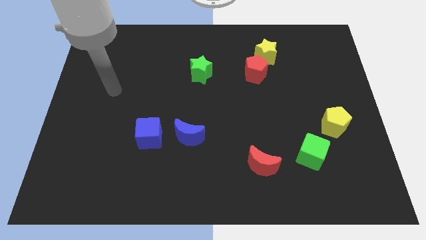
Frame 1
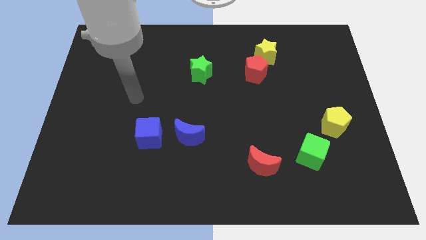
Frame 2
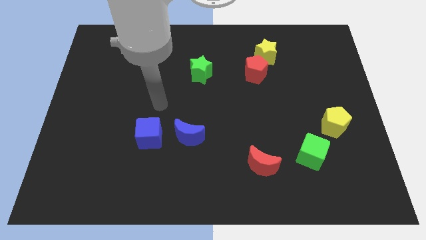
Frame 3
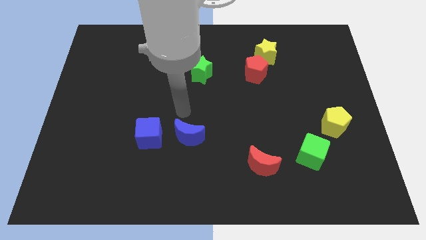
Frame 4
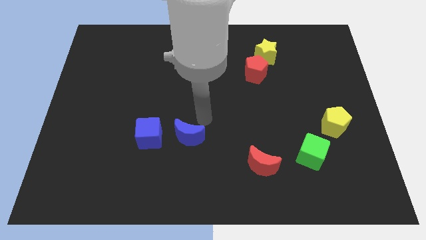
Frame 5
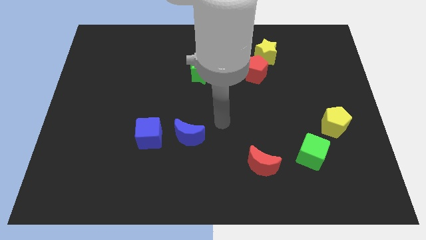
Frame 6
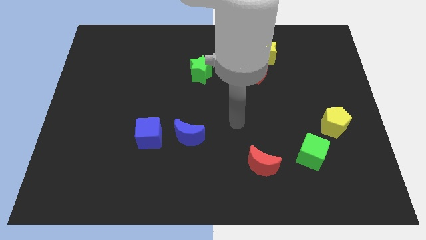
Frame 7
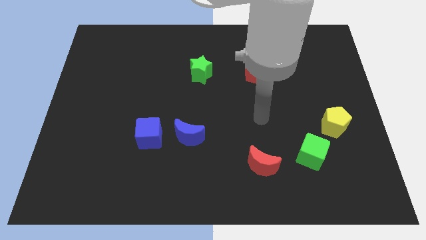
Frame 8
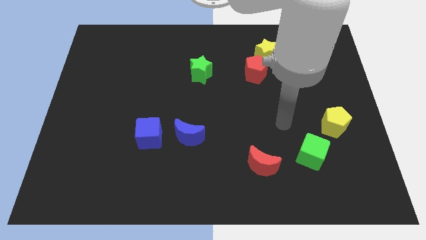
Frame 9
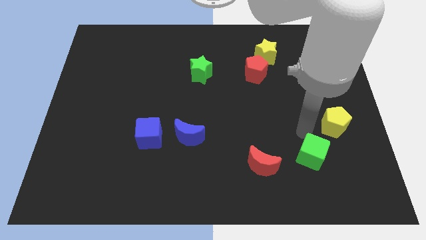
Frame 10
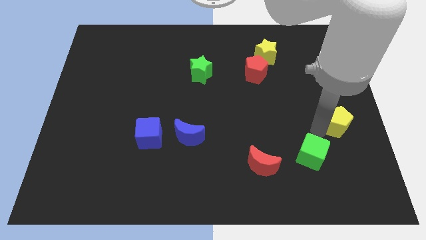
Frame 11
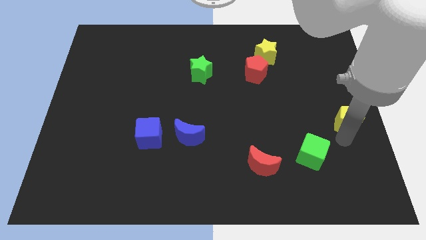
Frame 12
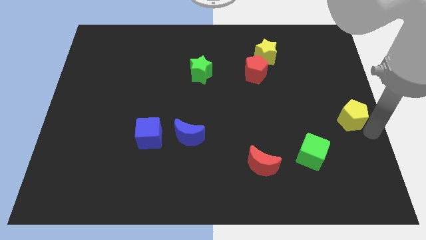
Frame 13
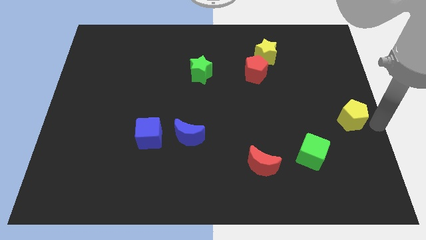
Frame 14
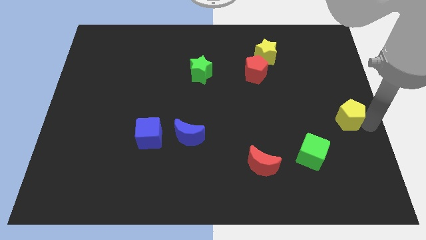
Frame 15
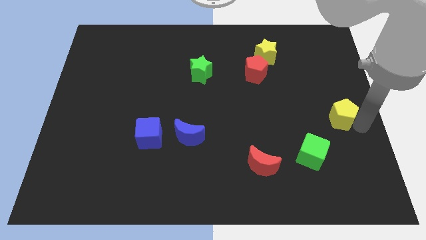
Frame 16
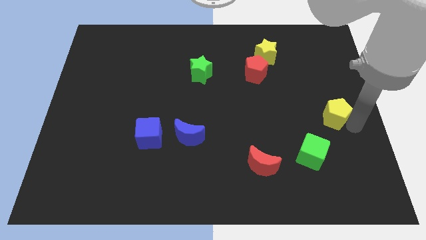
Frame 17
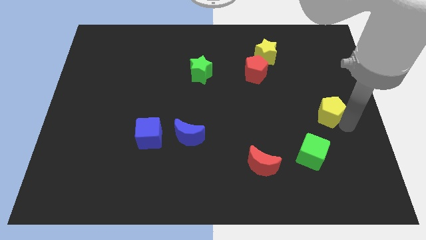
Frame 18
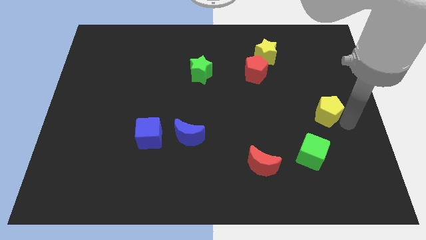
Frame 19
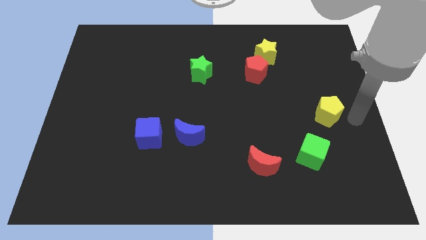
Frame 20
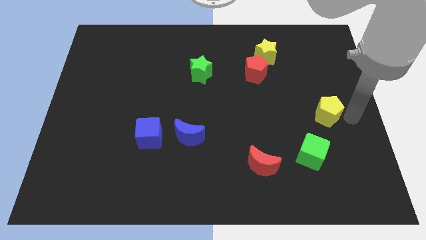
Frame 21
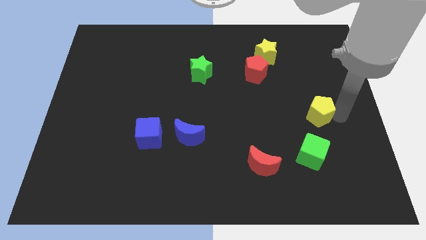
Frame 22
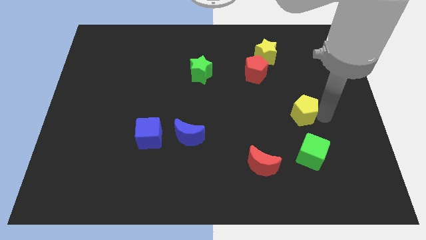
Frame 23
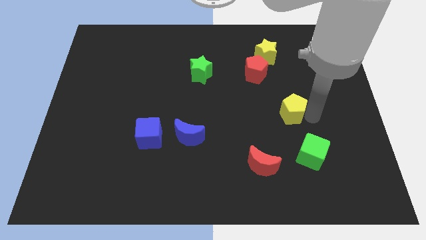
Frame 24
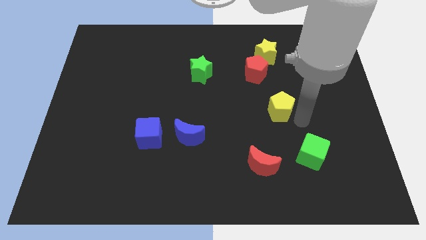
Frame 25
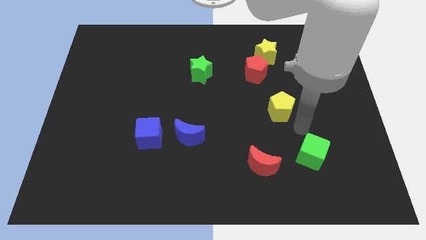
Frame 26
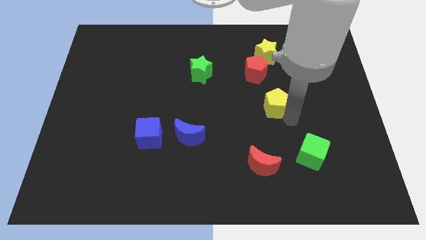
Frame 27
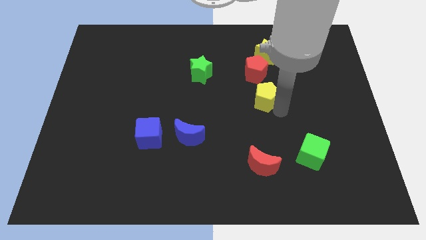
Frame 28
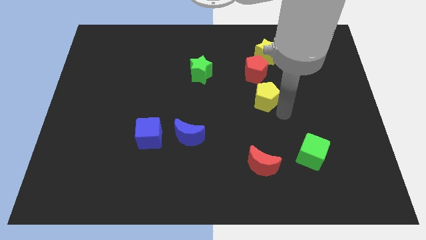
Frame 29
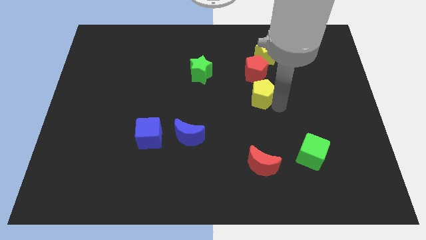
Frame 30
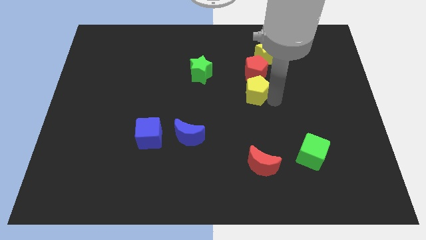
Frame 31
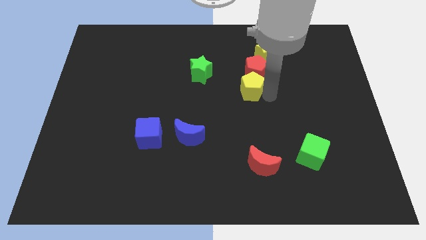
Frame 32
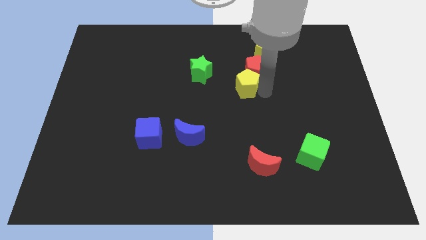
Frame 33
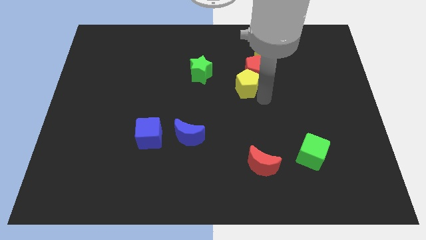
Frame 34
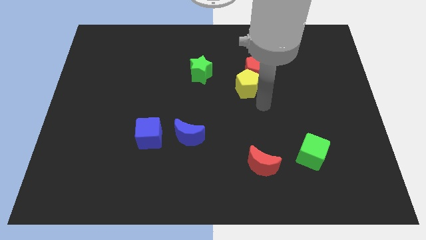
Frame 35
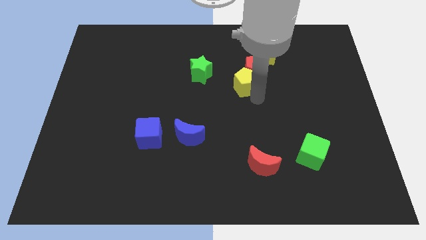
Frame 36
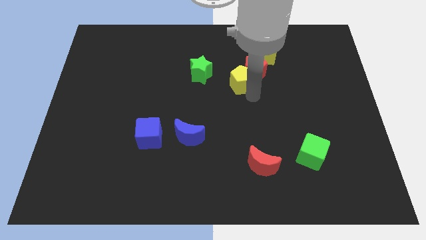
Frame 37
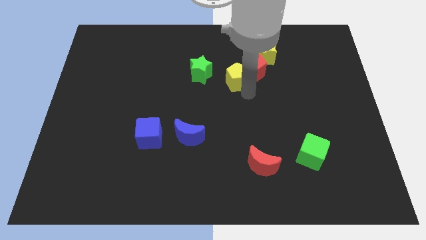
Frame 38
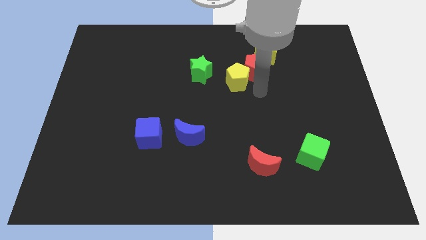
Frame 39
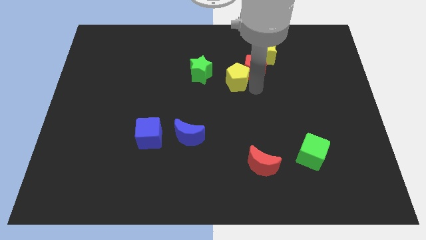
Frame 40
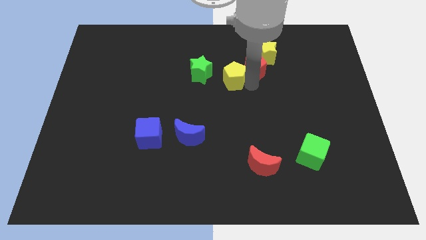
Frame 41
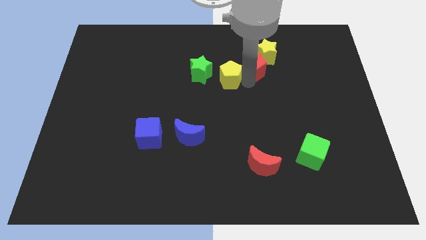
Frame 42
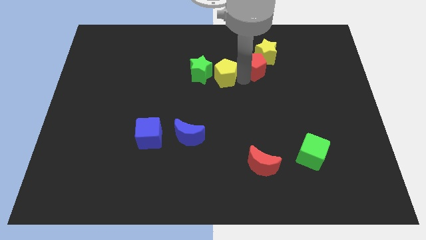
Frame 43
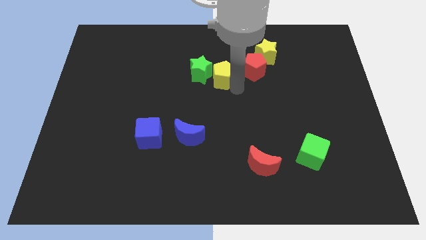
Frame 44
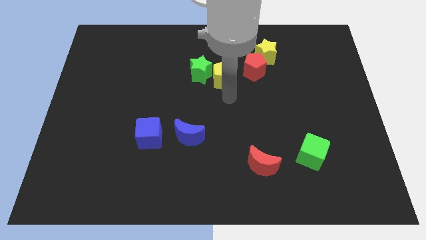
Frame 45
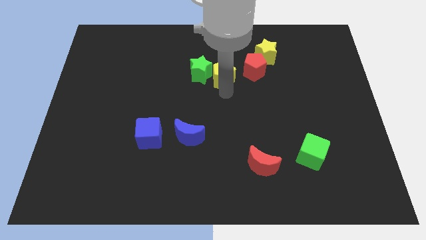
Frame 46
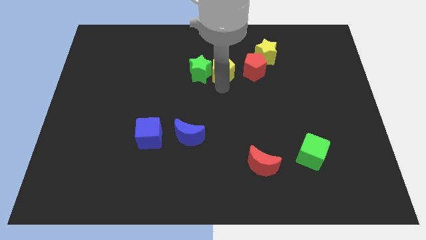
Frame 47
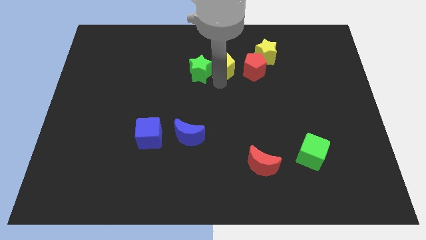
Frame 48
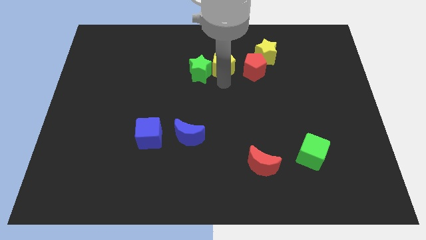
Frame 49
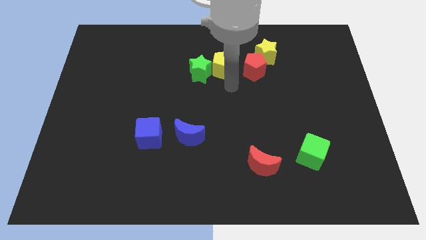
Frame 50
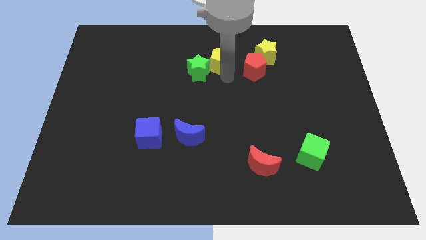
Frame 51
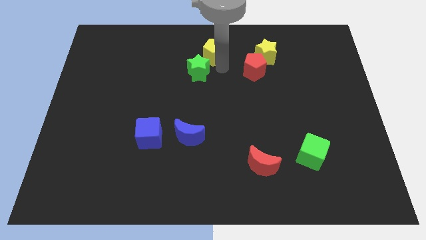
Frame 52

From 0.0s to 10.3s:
slide the yellow pentagon to the towards your base

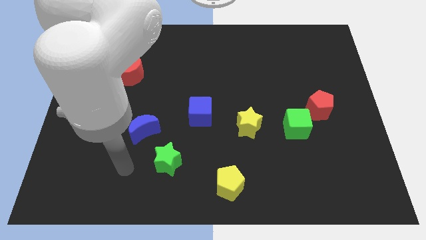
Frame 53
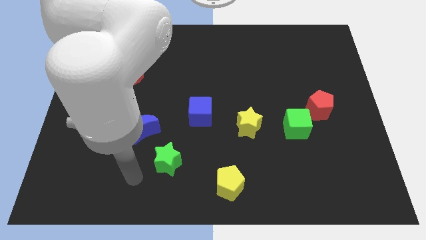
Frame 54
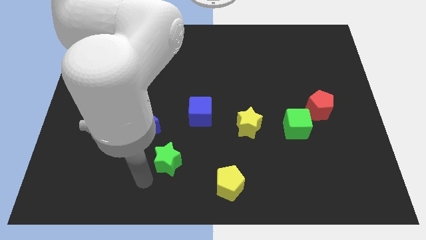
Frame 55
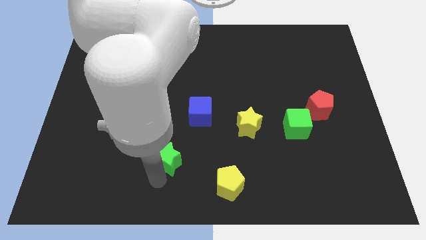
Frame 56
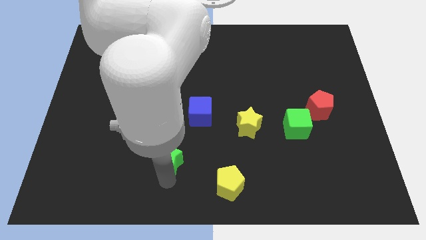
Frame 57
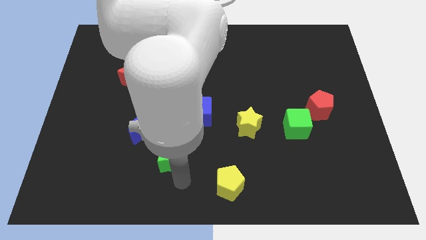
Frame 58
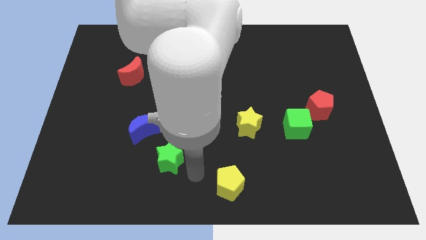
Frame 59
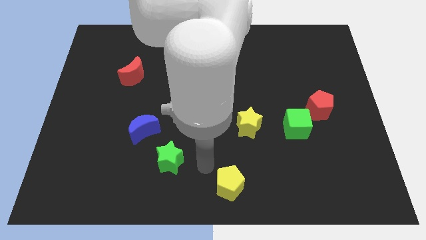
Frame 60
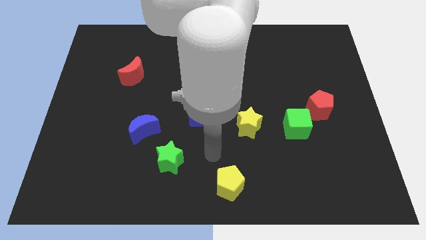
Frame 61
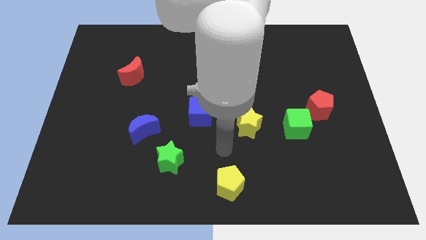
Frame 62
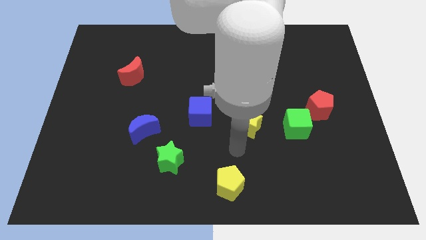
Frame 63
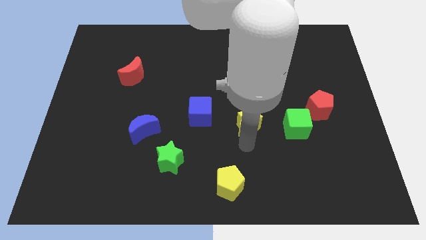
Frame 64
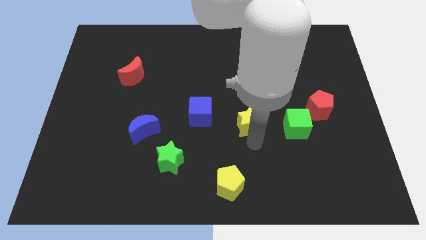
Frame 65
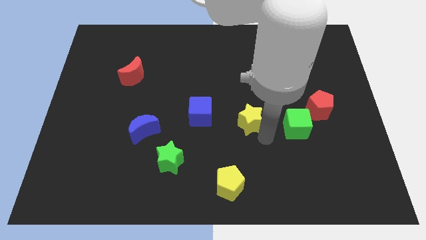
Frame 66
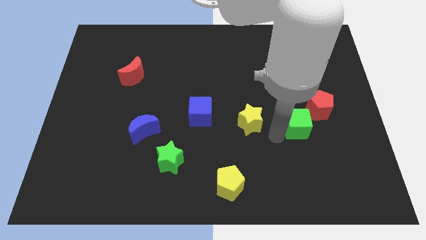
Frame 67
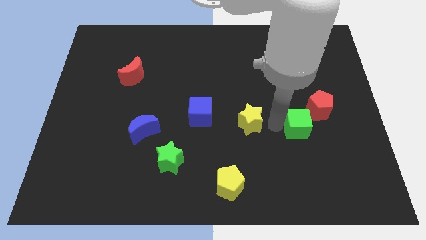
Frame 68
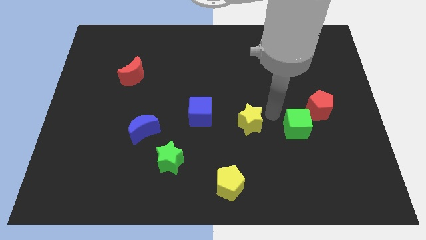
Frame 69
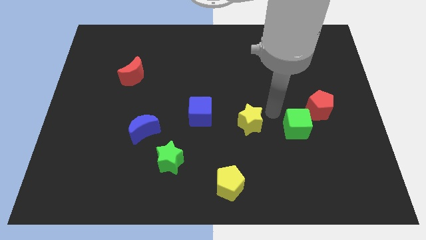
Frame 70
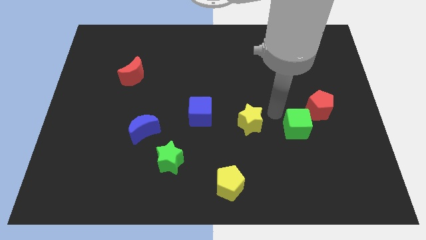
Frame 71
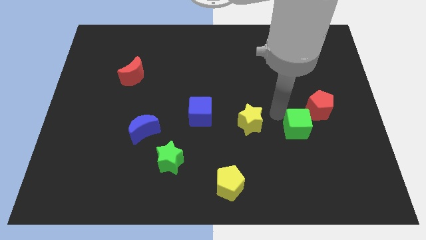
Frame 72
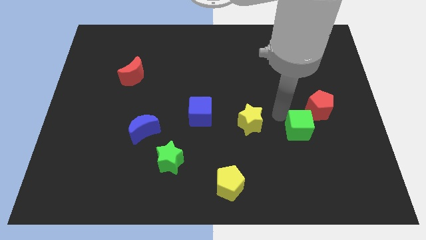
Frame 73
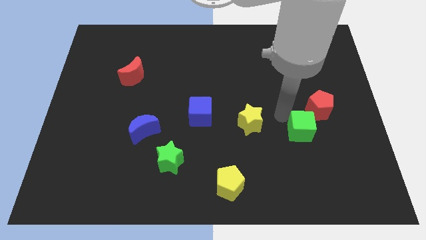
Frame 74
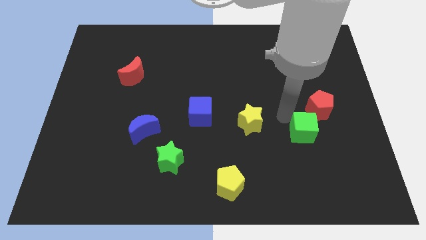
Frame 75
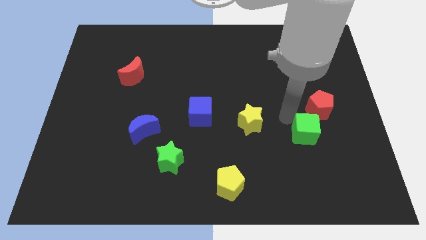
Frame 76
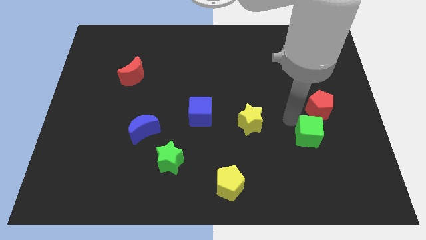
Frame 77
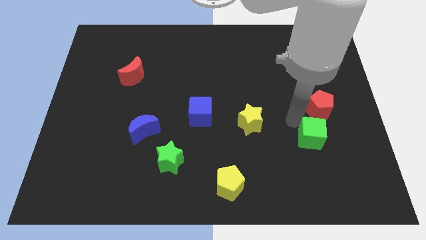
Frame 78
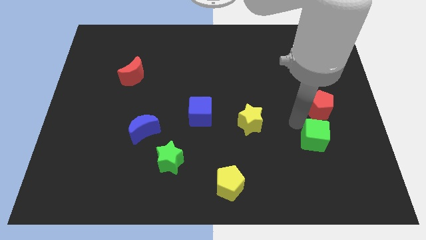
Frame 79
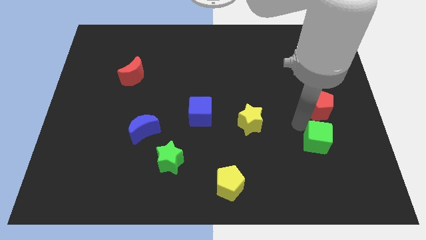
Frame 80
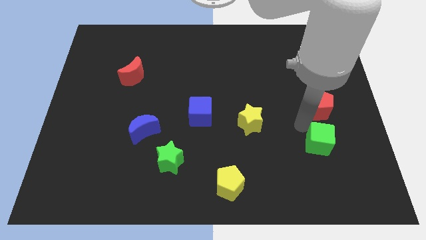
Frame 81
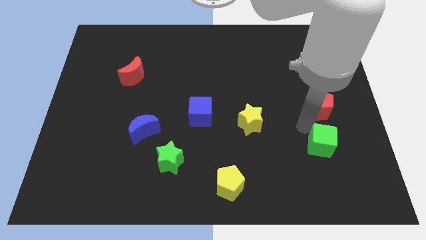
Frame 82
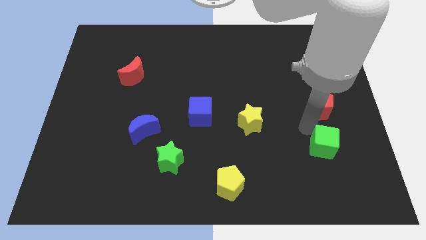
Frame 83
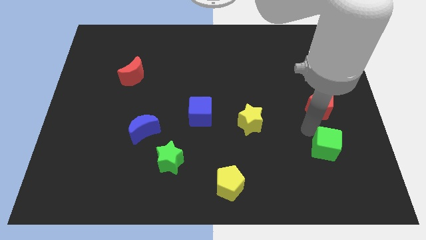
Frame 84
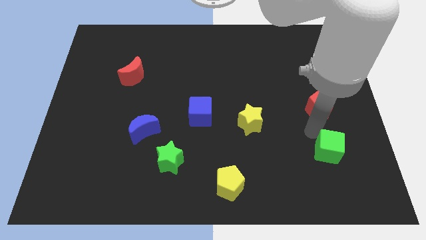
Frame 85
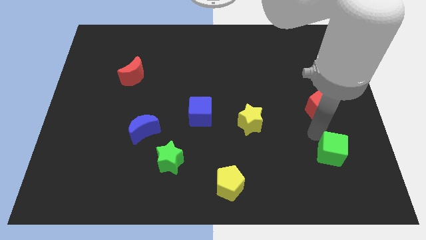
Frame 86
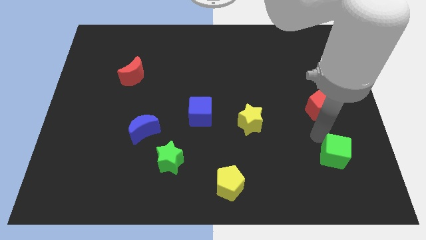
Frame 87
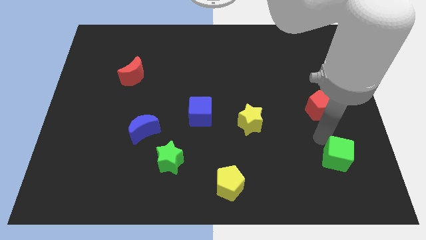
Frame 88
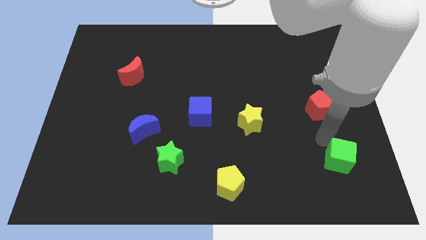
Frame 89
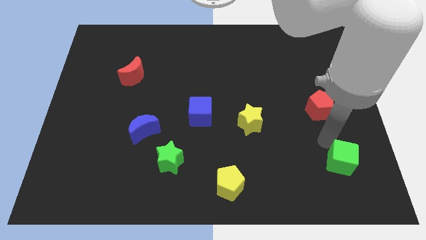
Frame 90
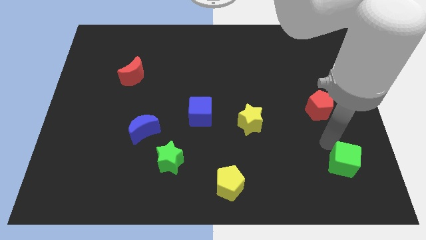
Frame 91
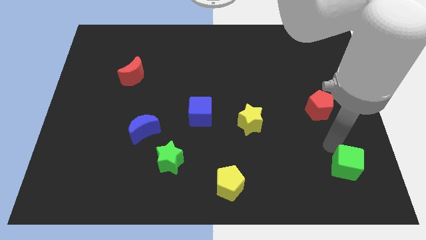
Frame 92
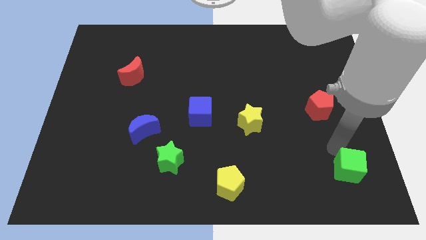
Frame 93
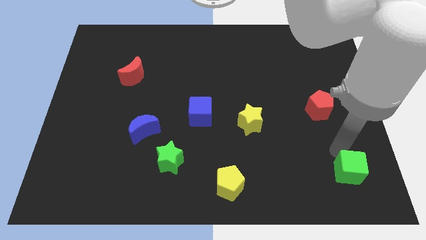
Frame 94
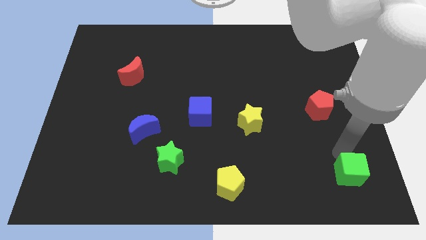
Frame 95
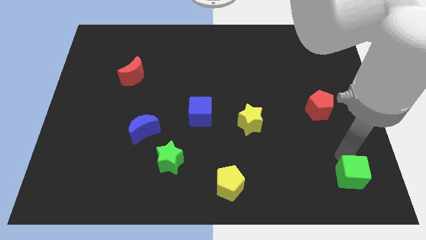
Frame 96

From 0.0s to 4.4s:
slide the green cube to the lower right corner
